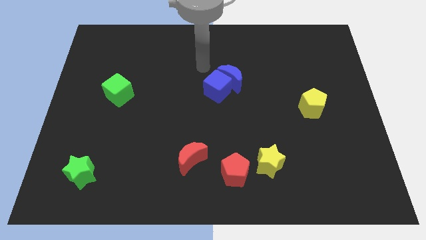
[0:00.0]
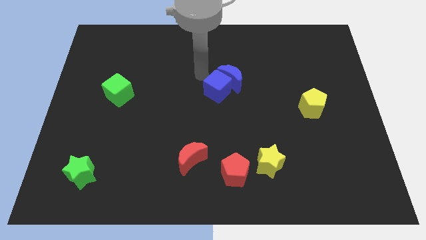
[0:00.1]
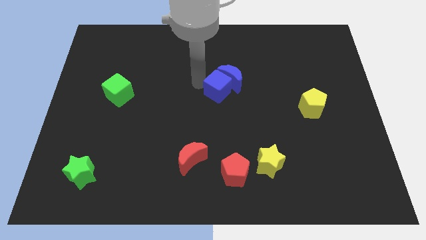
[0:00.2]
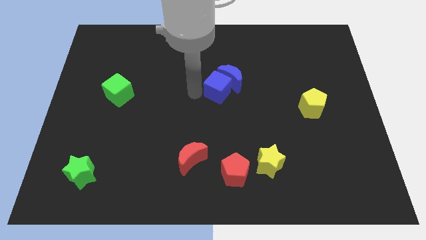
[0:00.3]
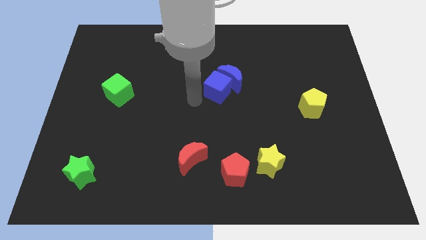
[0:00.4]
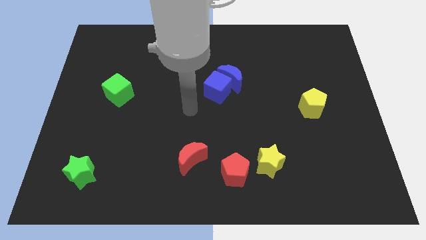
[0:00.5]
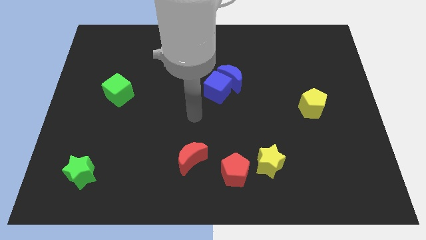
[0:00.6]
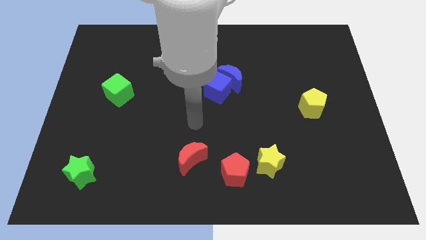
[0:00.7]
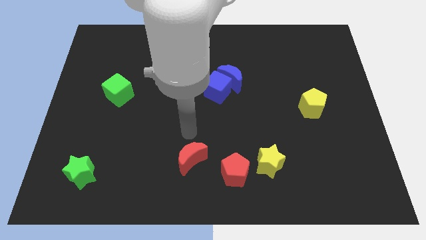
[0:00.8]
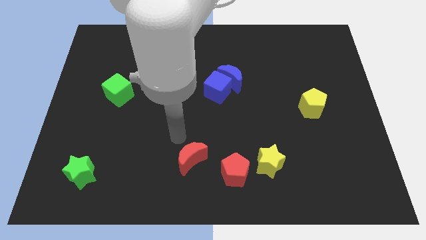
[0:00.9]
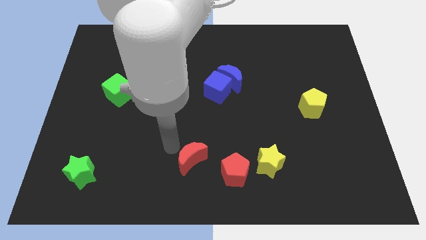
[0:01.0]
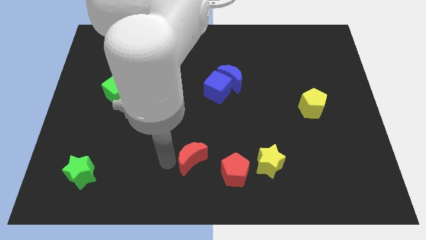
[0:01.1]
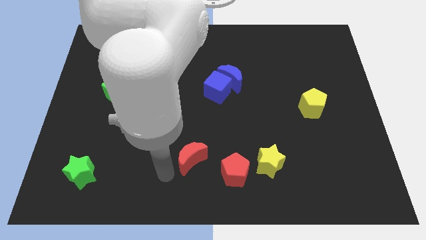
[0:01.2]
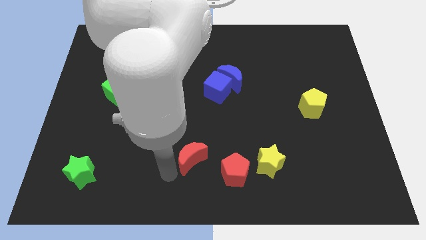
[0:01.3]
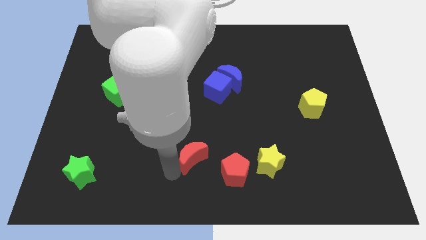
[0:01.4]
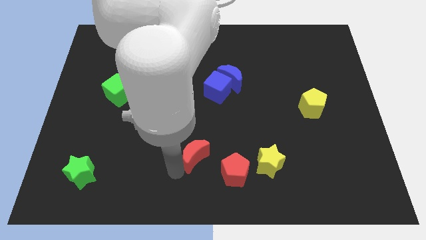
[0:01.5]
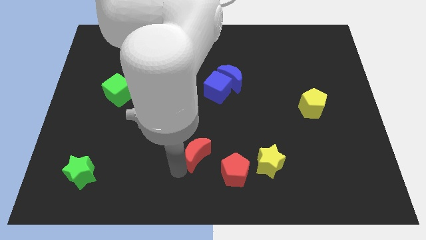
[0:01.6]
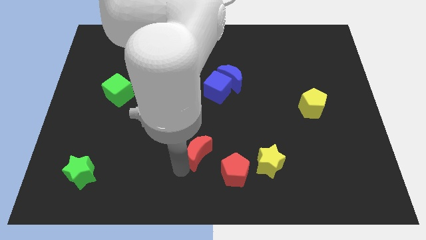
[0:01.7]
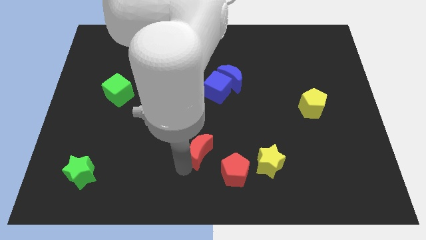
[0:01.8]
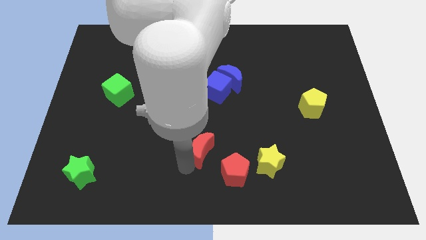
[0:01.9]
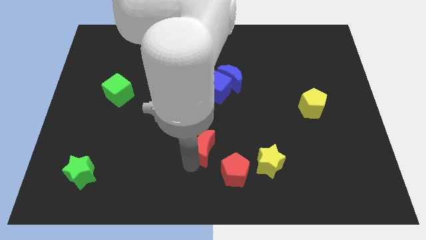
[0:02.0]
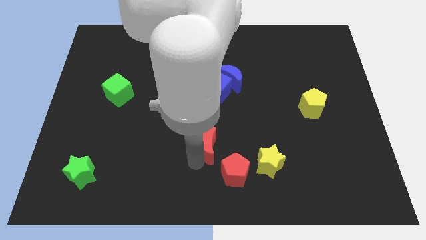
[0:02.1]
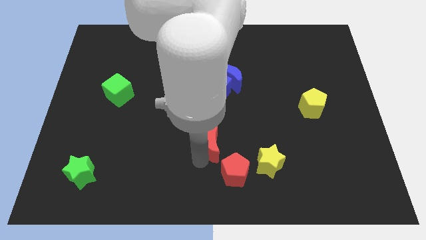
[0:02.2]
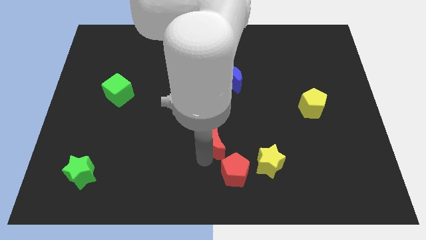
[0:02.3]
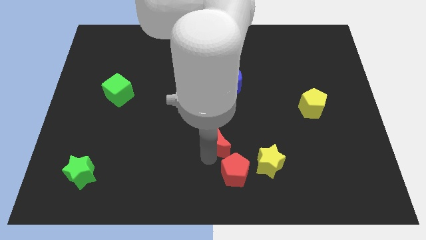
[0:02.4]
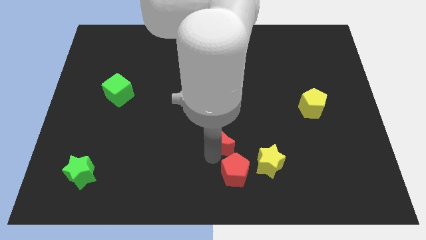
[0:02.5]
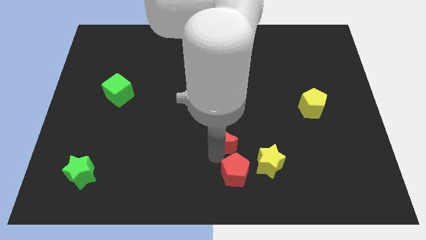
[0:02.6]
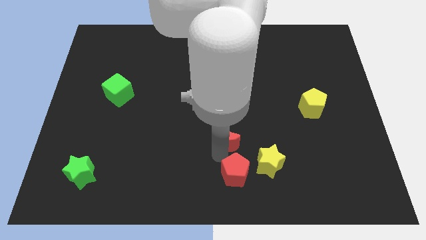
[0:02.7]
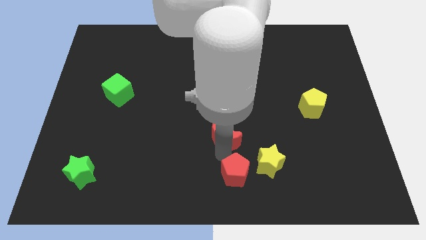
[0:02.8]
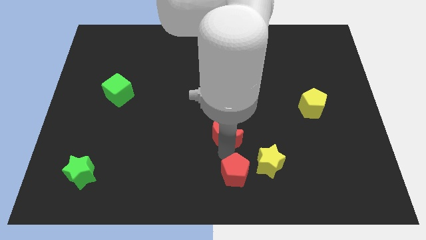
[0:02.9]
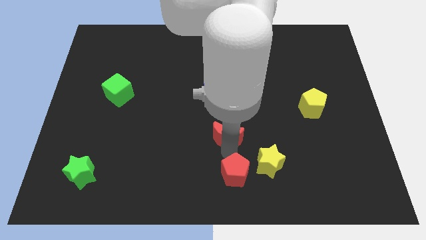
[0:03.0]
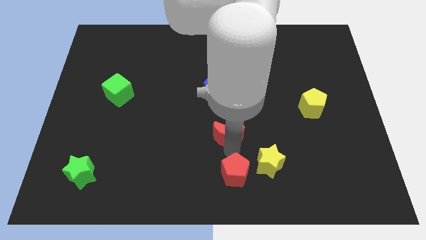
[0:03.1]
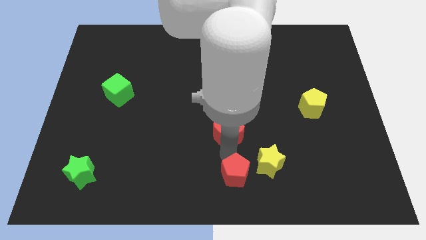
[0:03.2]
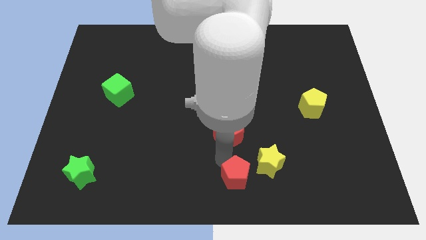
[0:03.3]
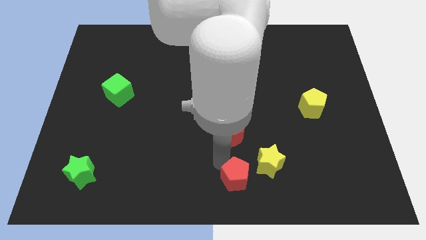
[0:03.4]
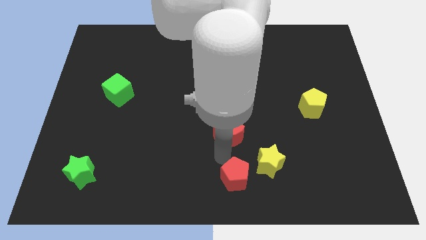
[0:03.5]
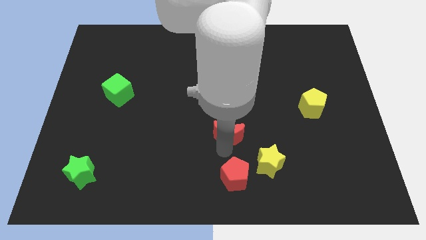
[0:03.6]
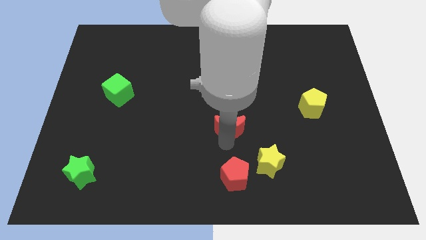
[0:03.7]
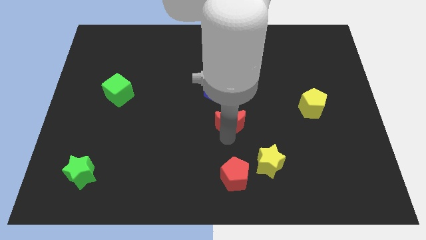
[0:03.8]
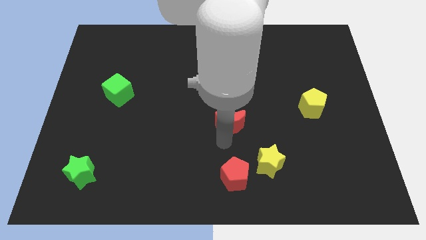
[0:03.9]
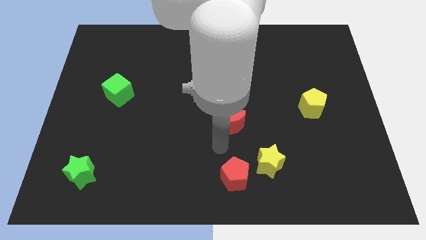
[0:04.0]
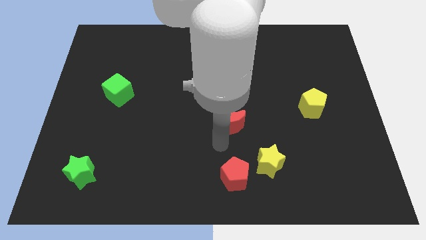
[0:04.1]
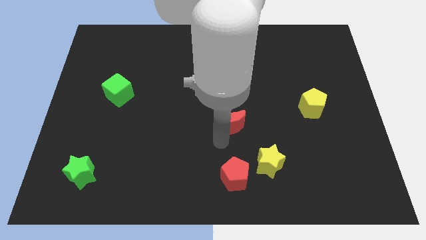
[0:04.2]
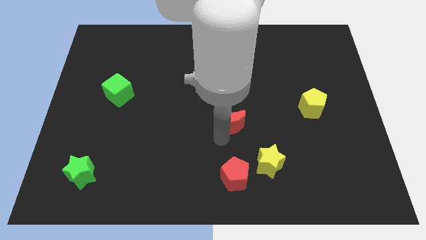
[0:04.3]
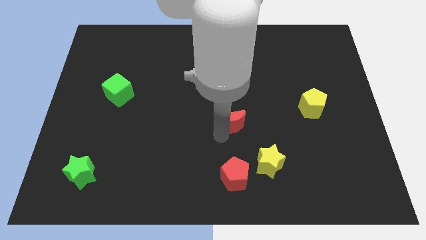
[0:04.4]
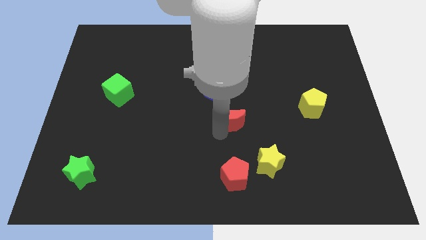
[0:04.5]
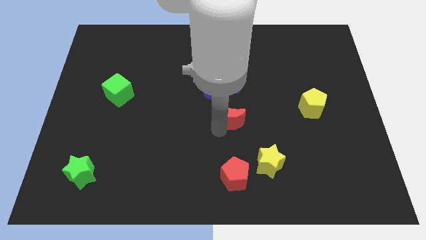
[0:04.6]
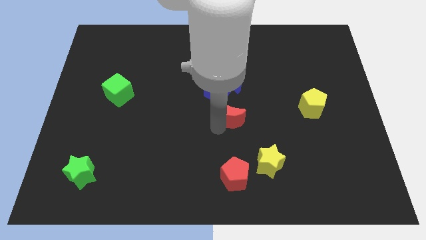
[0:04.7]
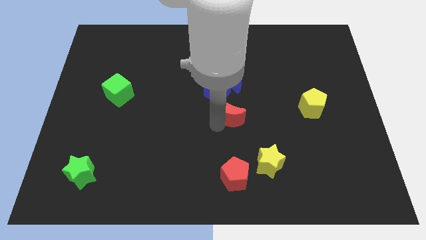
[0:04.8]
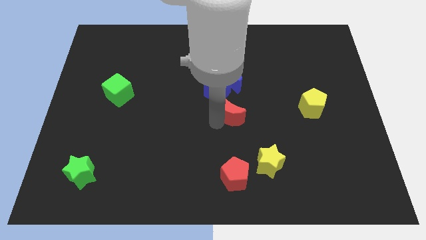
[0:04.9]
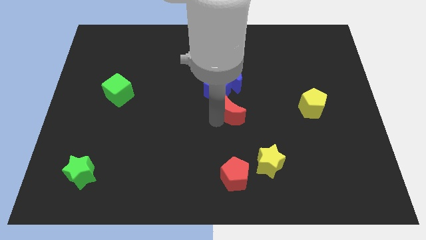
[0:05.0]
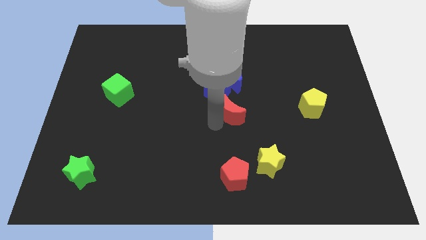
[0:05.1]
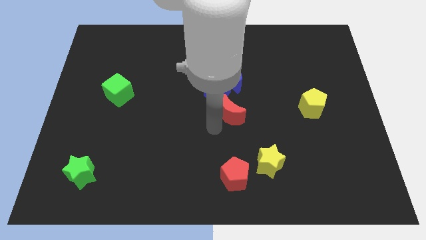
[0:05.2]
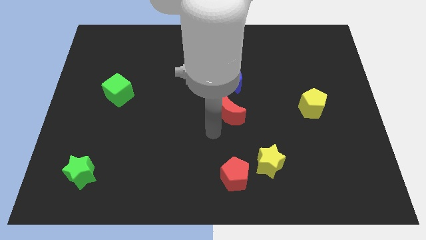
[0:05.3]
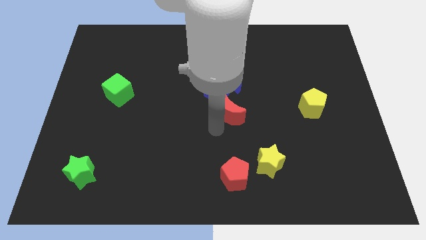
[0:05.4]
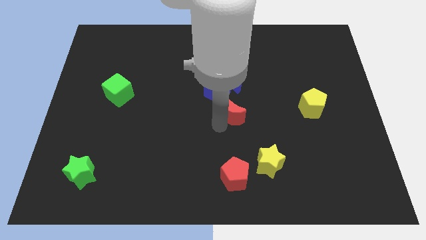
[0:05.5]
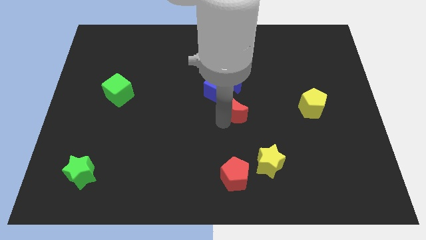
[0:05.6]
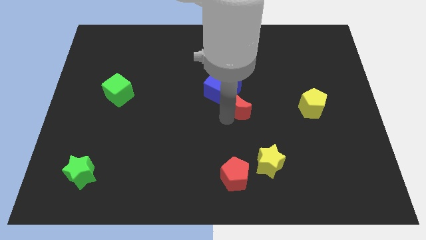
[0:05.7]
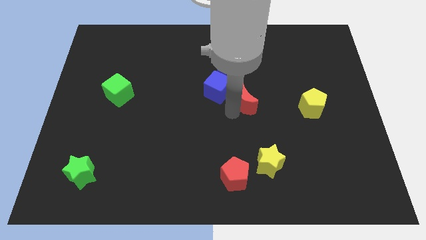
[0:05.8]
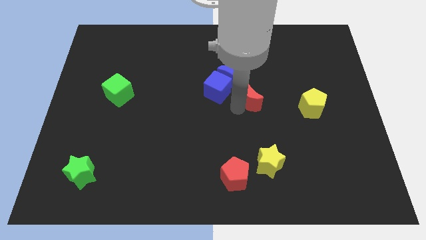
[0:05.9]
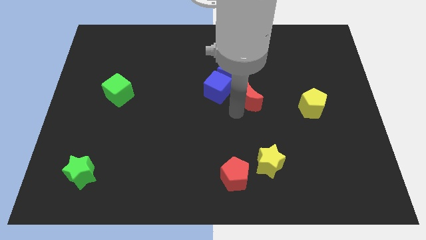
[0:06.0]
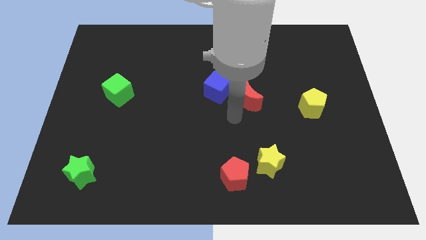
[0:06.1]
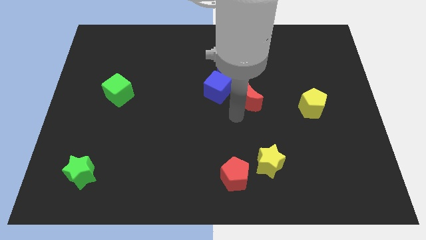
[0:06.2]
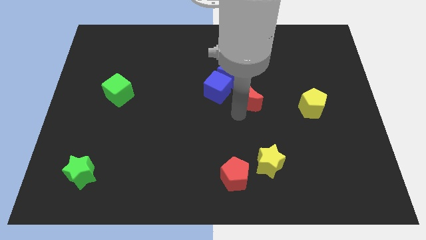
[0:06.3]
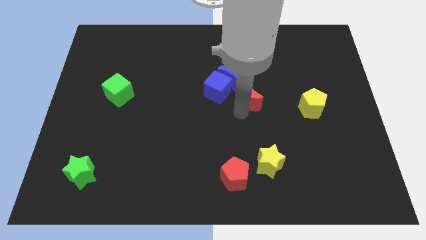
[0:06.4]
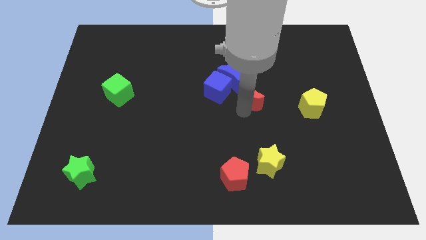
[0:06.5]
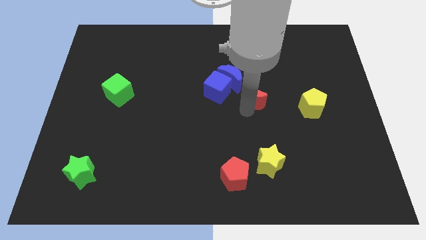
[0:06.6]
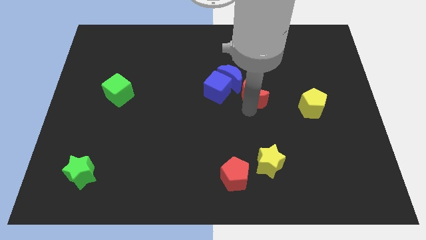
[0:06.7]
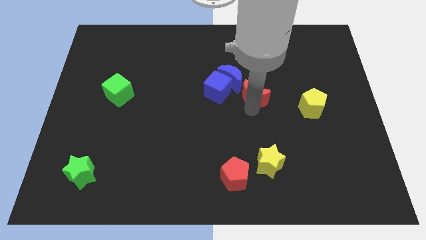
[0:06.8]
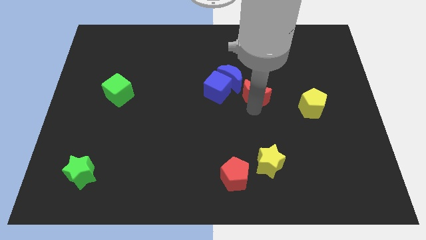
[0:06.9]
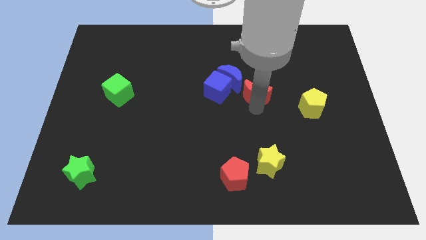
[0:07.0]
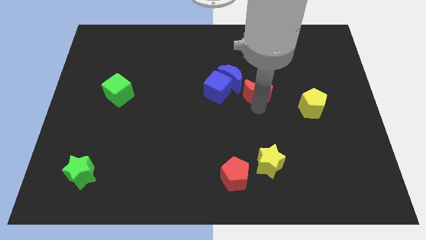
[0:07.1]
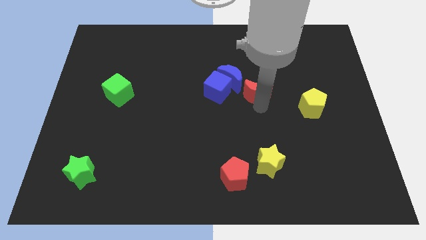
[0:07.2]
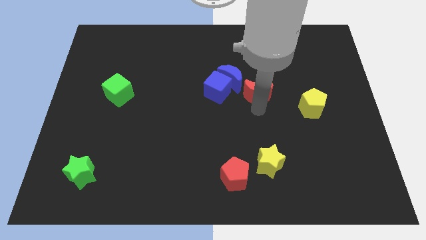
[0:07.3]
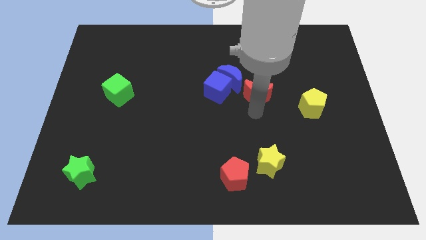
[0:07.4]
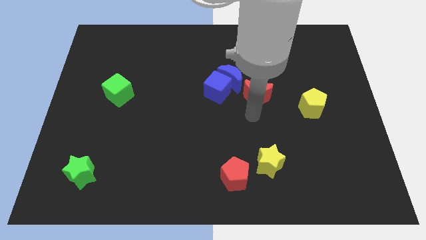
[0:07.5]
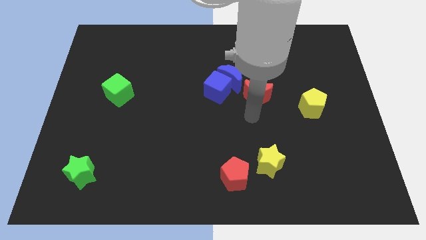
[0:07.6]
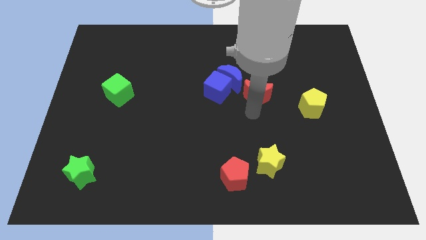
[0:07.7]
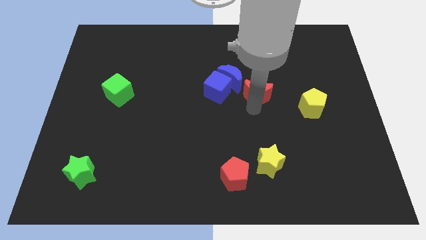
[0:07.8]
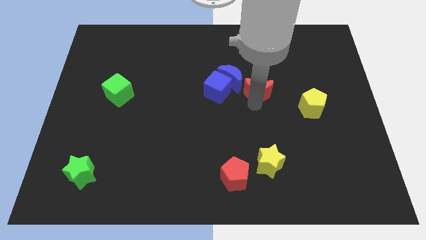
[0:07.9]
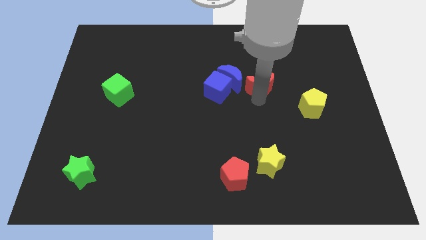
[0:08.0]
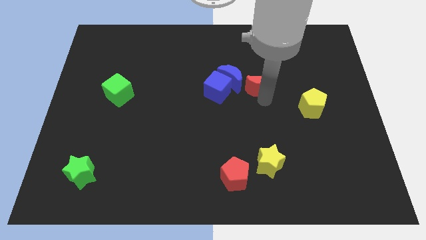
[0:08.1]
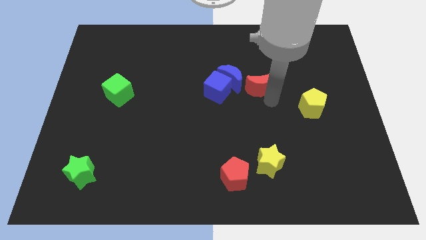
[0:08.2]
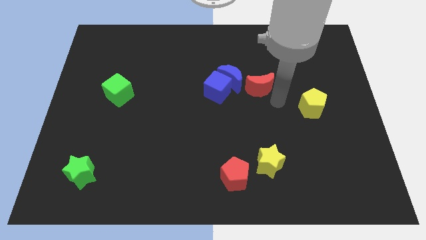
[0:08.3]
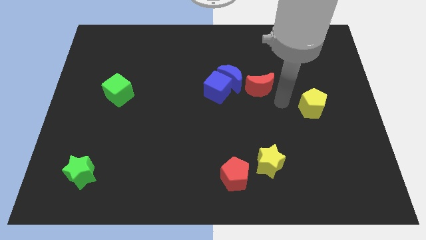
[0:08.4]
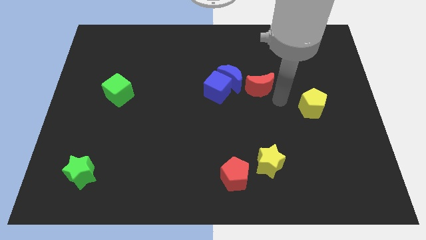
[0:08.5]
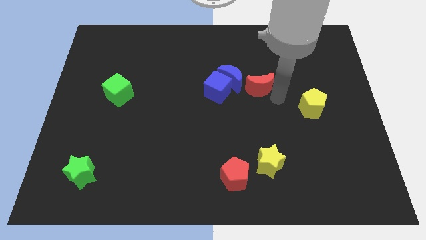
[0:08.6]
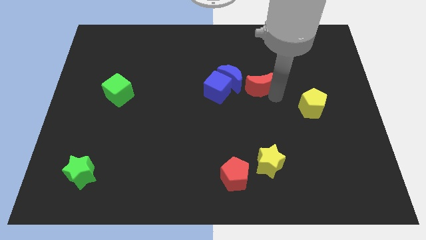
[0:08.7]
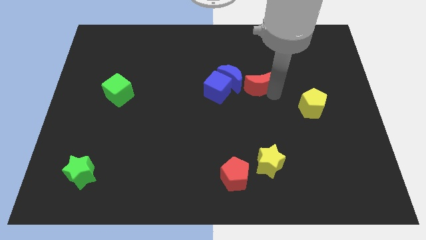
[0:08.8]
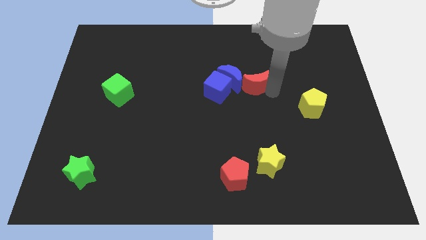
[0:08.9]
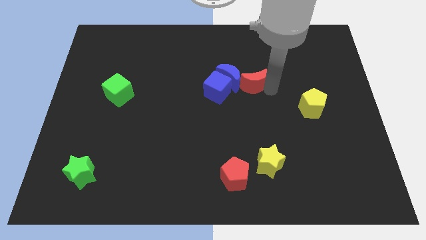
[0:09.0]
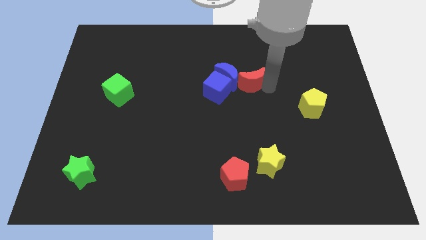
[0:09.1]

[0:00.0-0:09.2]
move the red moon diagonally up and to the right of the blue cube
